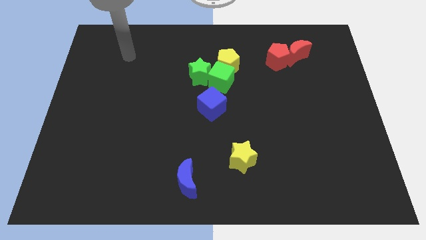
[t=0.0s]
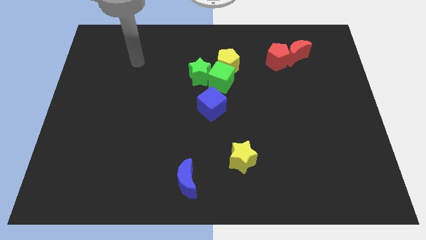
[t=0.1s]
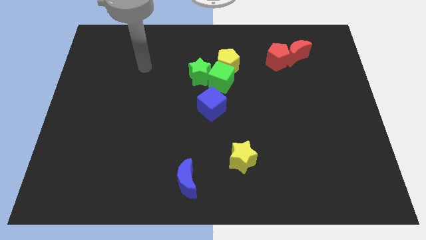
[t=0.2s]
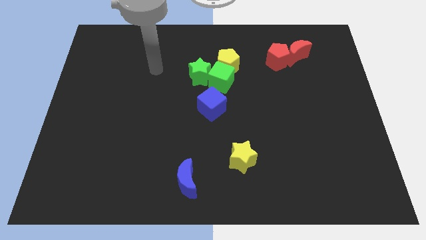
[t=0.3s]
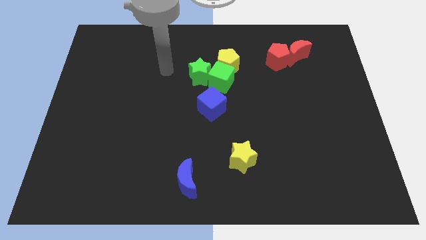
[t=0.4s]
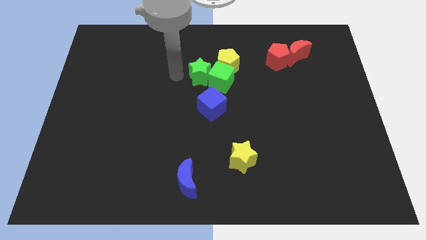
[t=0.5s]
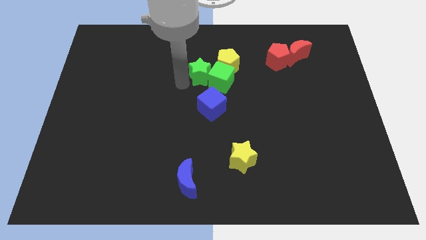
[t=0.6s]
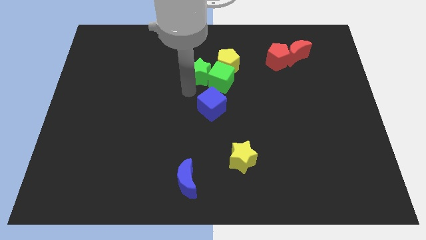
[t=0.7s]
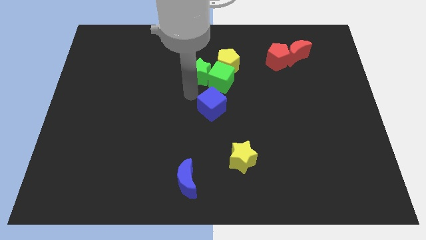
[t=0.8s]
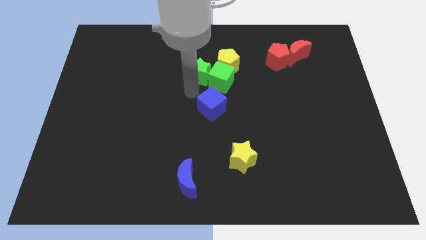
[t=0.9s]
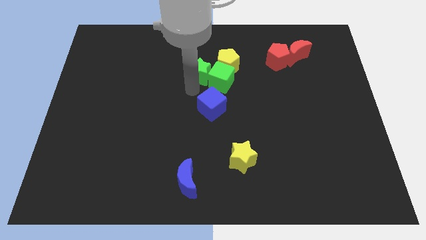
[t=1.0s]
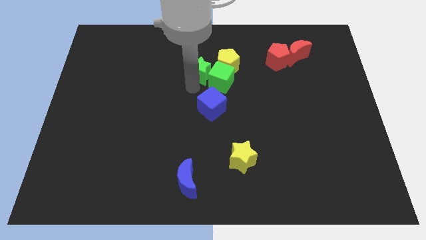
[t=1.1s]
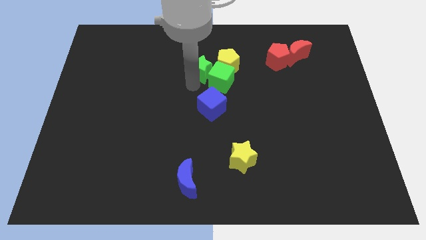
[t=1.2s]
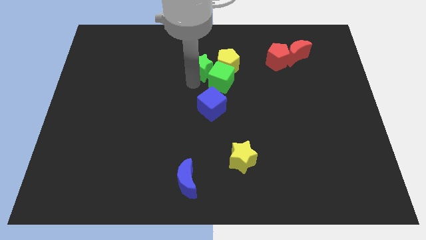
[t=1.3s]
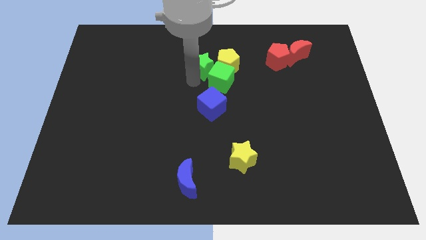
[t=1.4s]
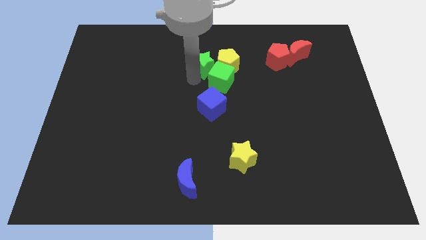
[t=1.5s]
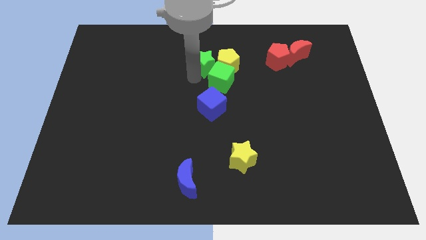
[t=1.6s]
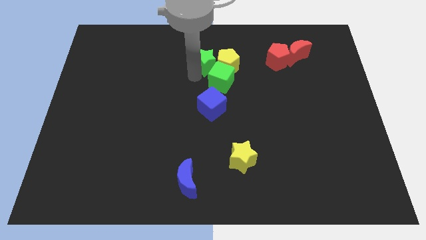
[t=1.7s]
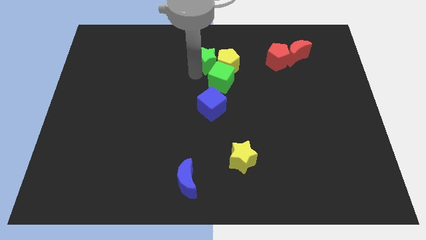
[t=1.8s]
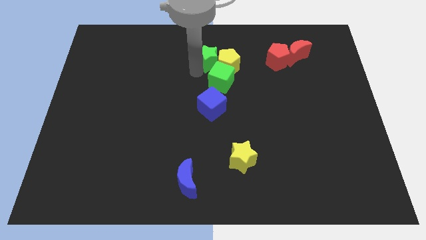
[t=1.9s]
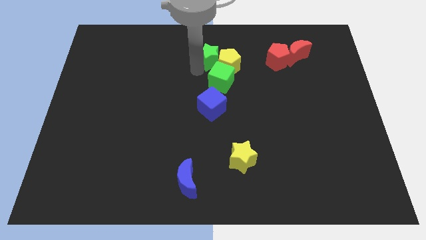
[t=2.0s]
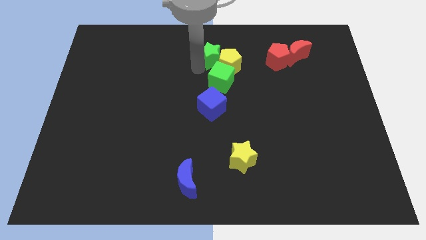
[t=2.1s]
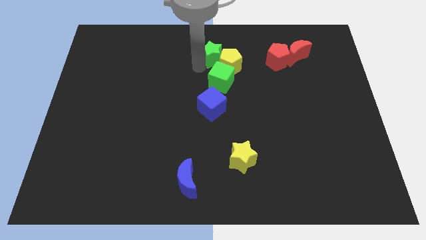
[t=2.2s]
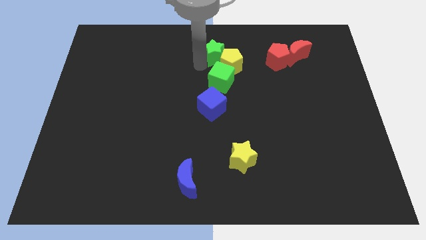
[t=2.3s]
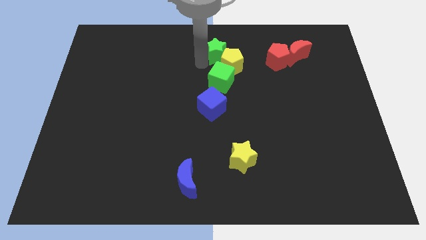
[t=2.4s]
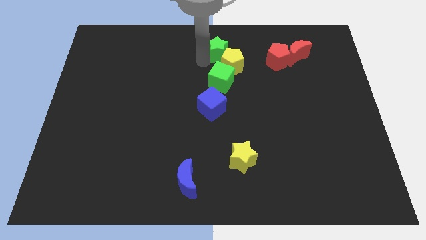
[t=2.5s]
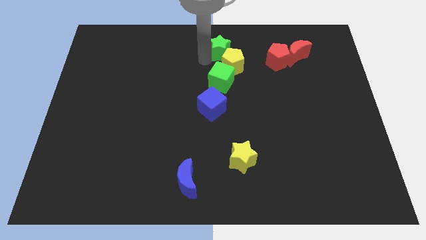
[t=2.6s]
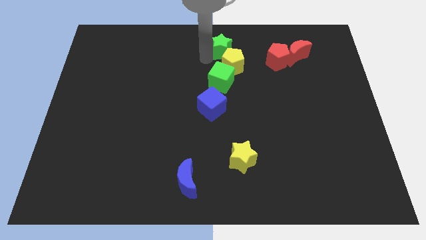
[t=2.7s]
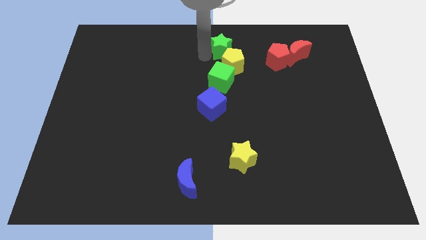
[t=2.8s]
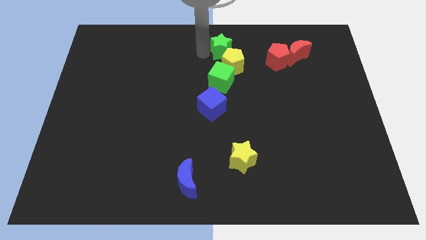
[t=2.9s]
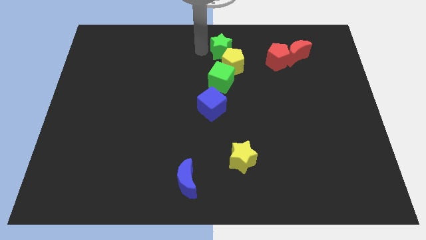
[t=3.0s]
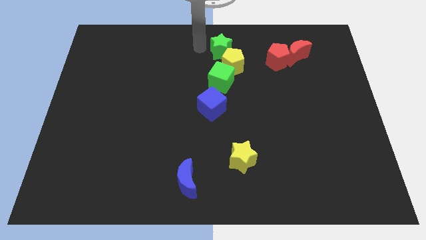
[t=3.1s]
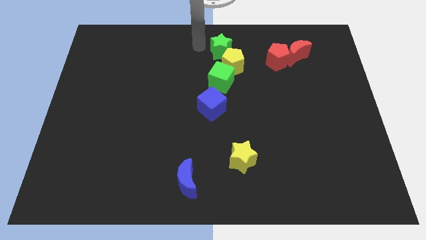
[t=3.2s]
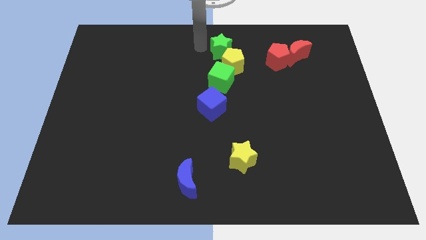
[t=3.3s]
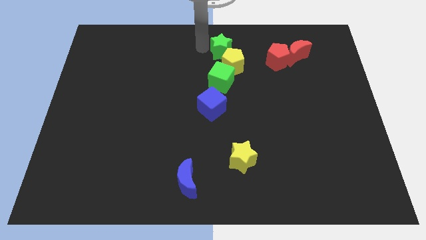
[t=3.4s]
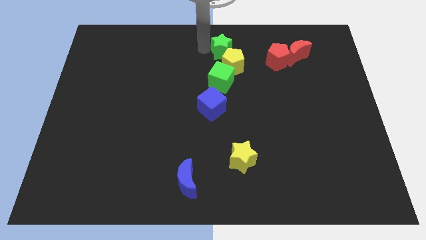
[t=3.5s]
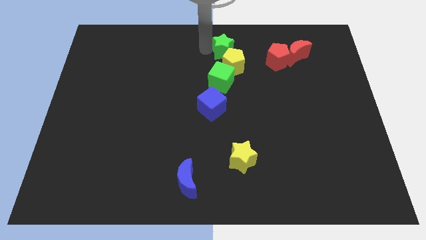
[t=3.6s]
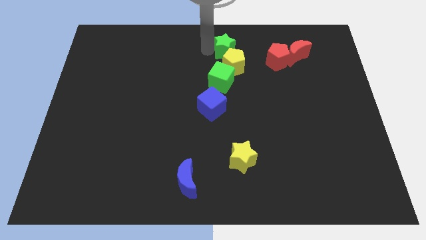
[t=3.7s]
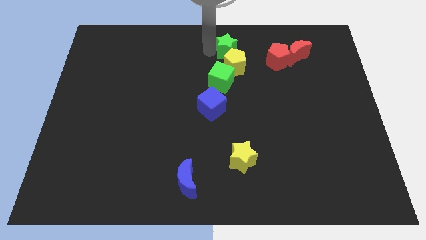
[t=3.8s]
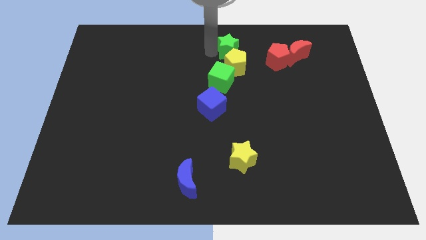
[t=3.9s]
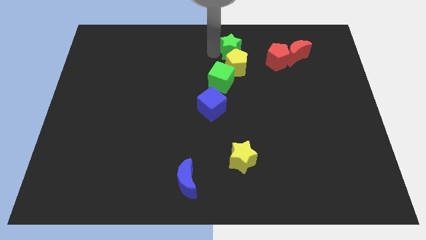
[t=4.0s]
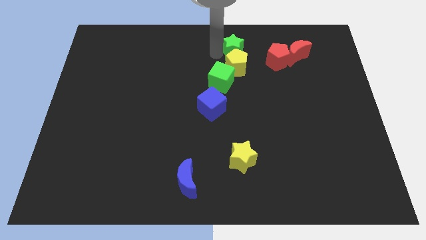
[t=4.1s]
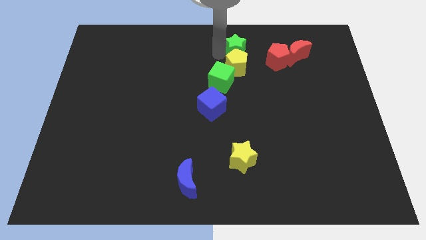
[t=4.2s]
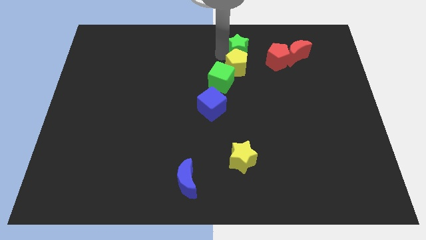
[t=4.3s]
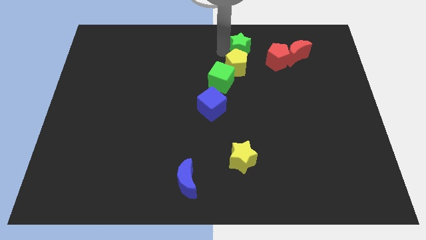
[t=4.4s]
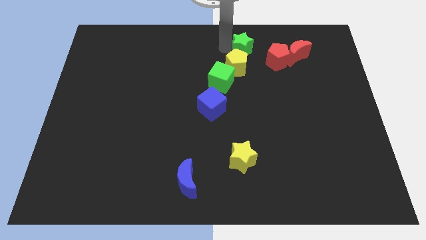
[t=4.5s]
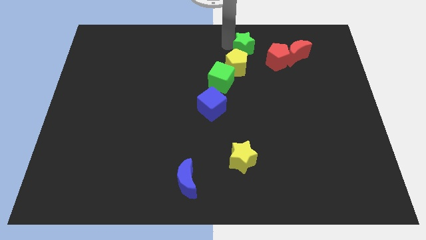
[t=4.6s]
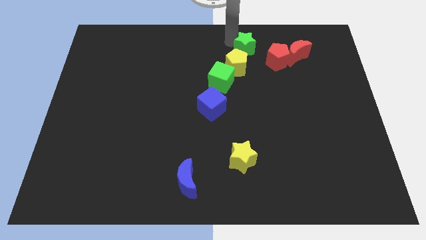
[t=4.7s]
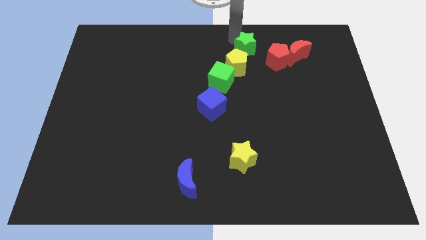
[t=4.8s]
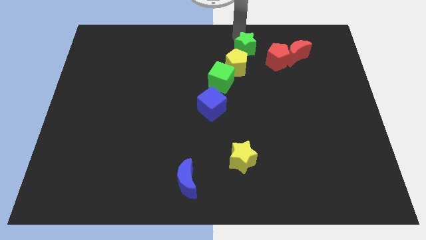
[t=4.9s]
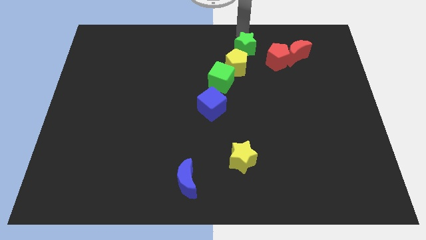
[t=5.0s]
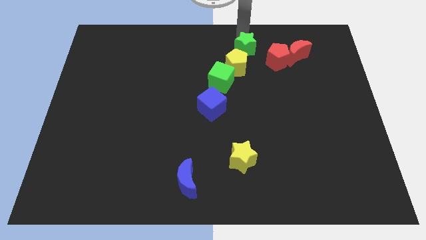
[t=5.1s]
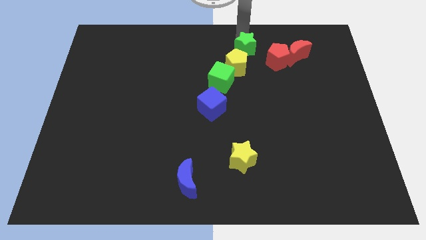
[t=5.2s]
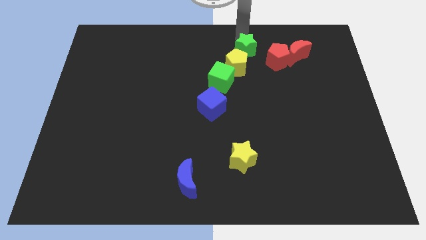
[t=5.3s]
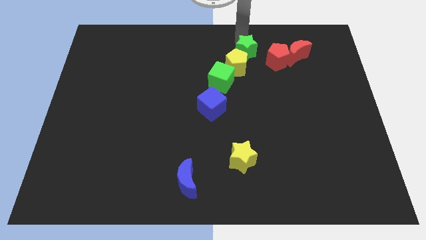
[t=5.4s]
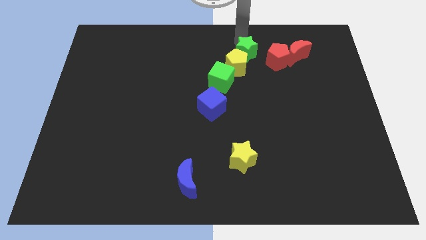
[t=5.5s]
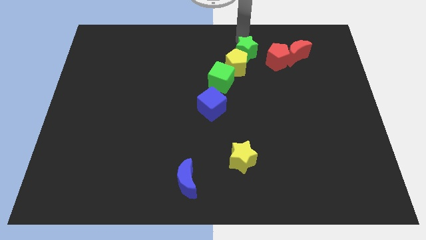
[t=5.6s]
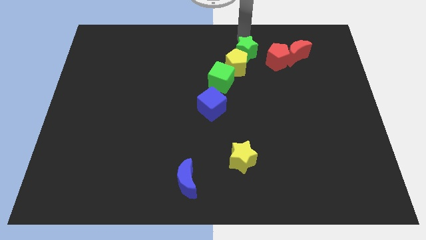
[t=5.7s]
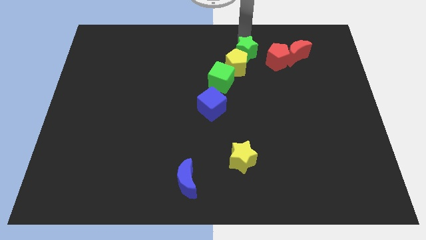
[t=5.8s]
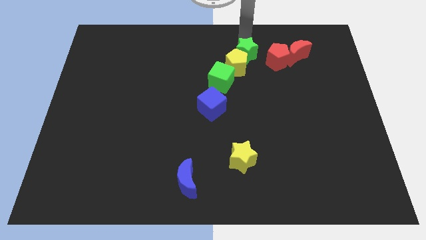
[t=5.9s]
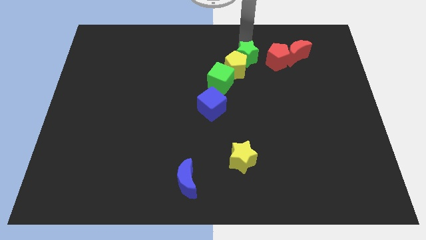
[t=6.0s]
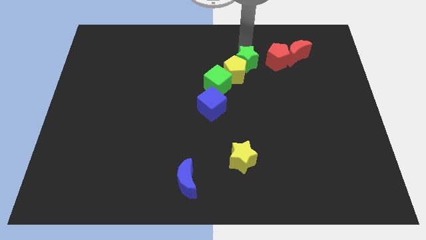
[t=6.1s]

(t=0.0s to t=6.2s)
slide the green star to the bottom left side of the red pentagon
